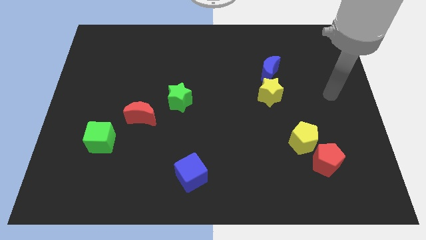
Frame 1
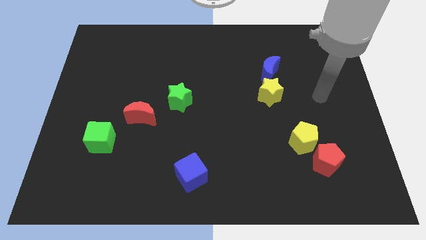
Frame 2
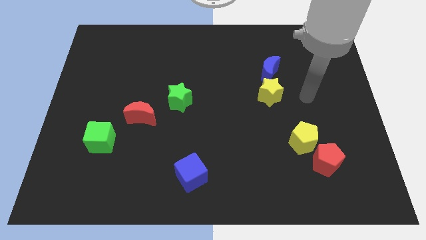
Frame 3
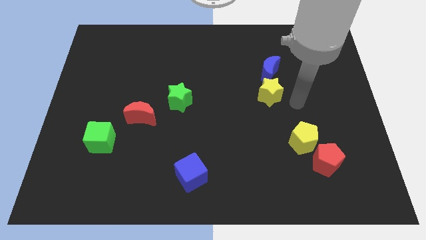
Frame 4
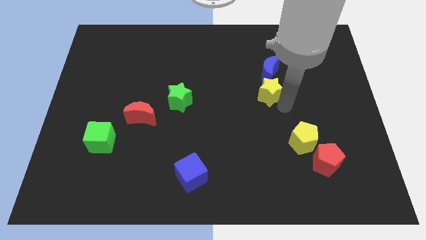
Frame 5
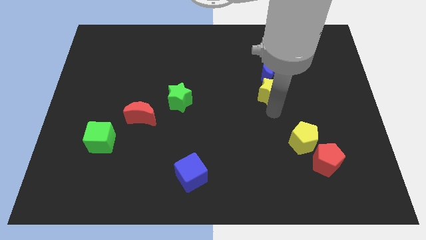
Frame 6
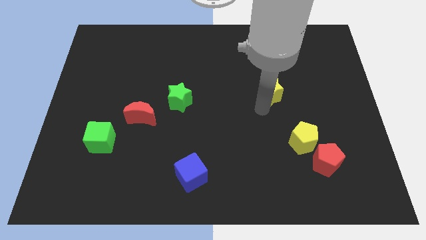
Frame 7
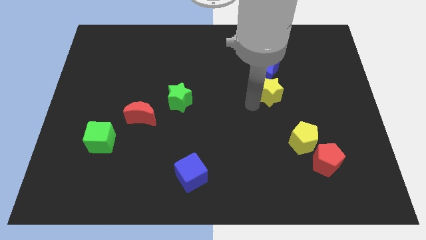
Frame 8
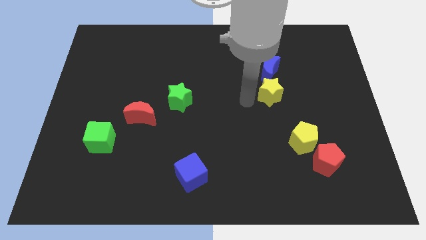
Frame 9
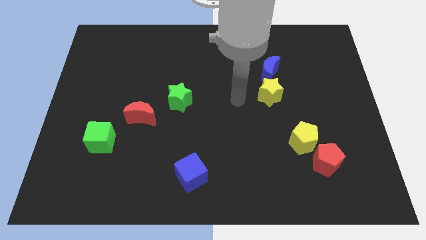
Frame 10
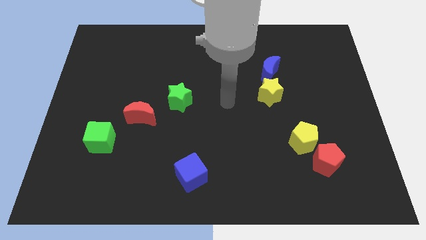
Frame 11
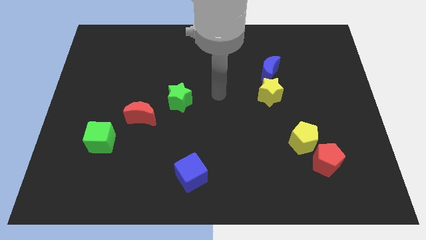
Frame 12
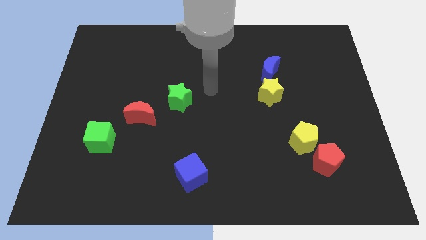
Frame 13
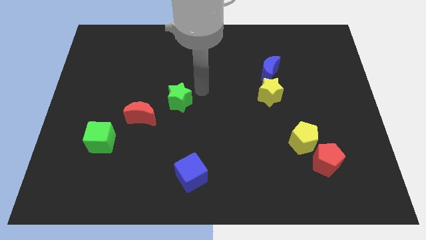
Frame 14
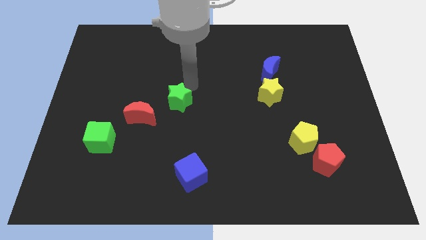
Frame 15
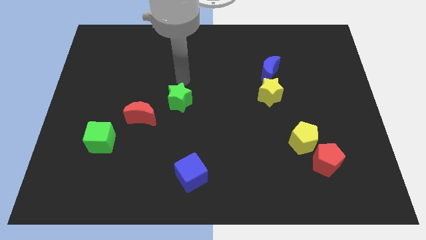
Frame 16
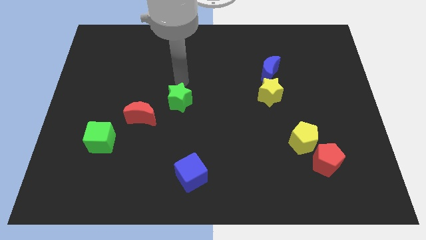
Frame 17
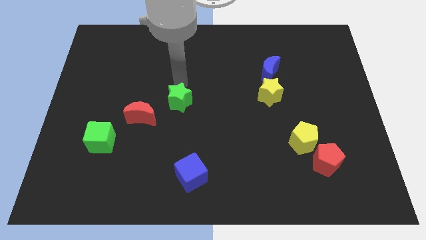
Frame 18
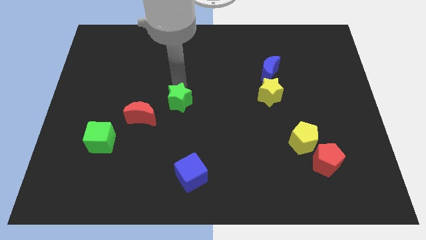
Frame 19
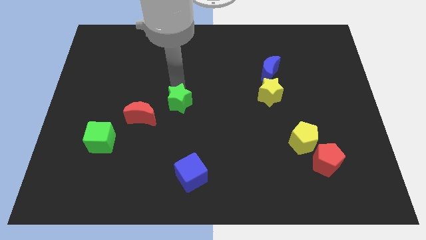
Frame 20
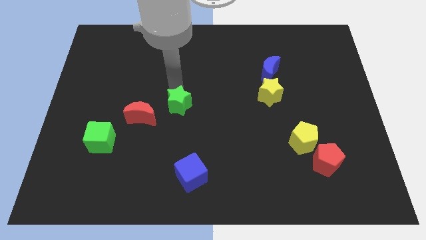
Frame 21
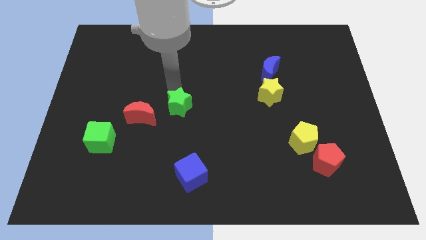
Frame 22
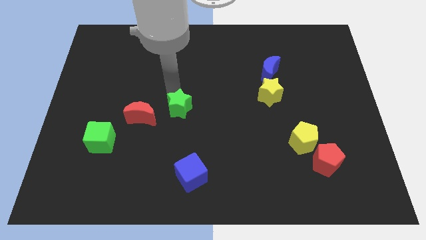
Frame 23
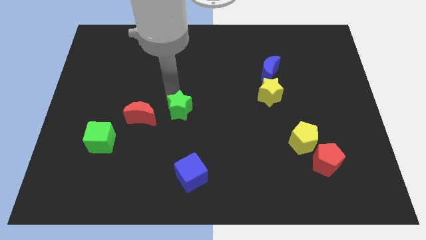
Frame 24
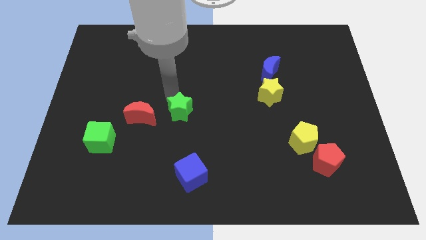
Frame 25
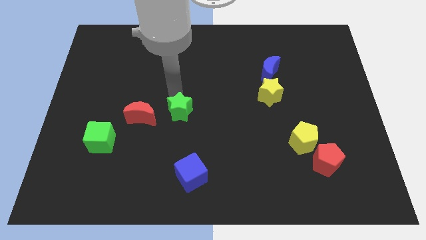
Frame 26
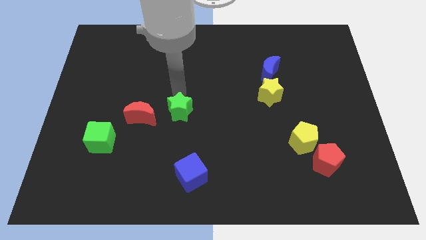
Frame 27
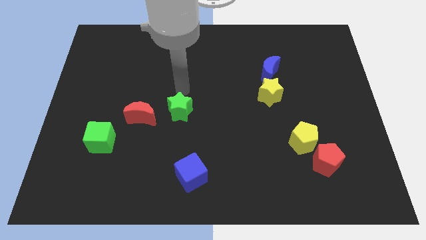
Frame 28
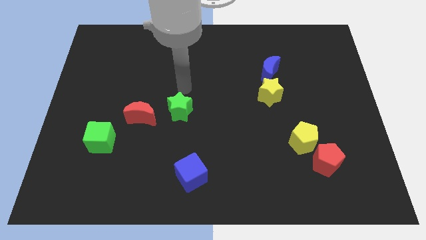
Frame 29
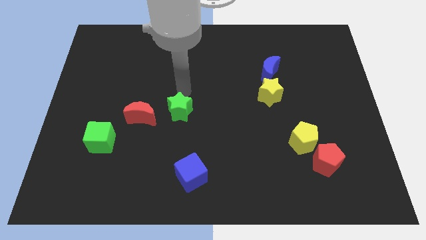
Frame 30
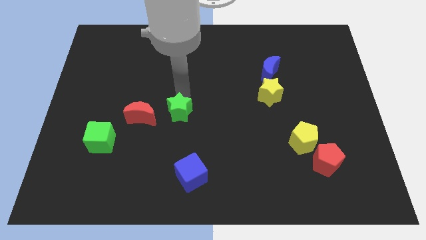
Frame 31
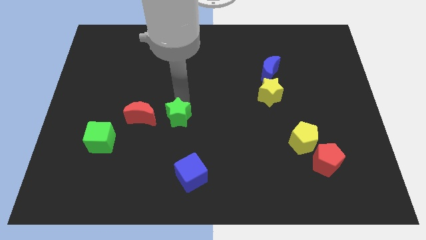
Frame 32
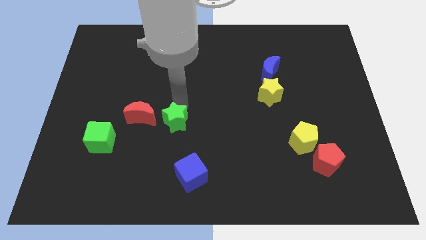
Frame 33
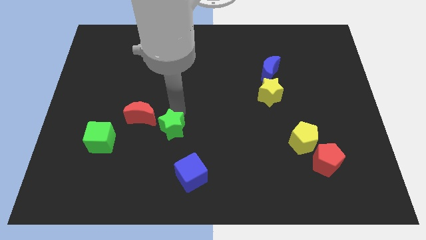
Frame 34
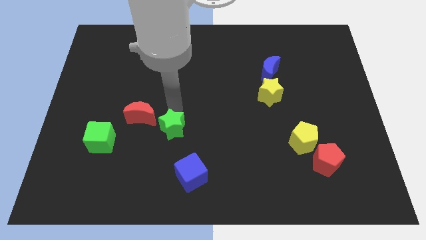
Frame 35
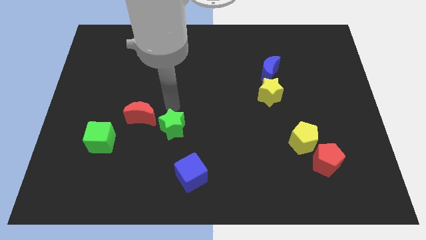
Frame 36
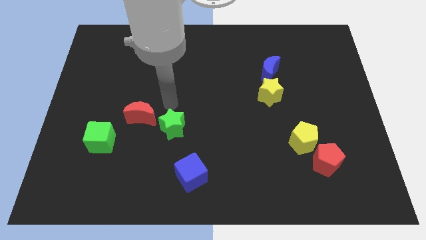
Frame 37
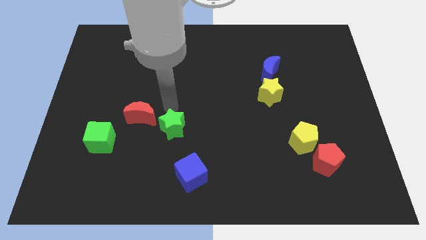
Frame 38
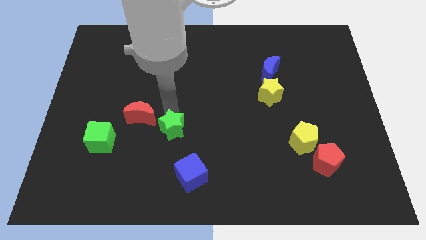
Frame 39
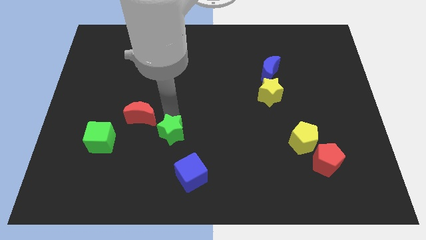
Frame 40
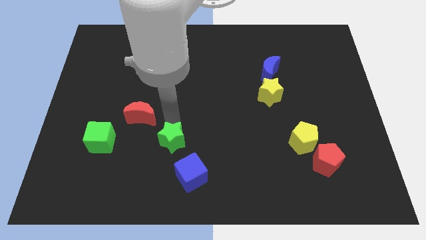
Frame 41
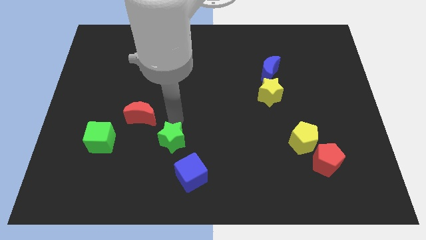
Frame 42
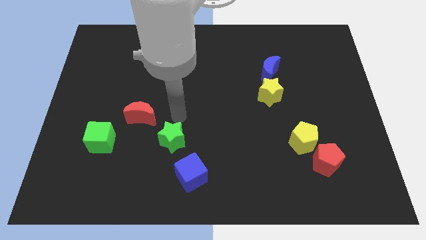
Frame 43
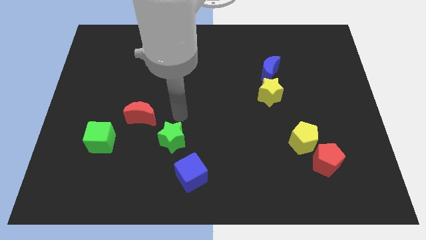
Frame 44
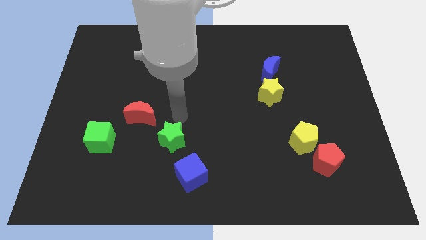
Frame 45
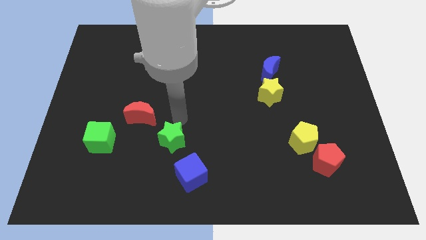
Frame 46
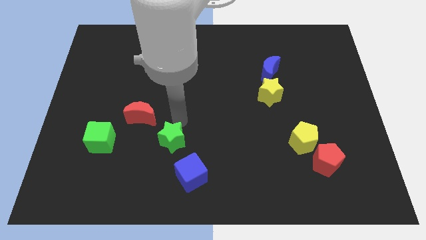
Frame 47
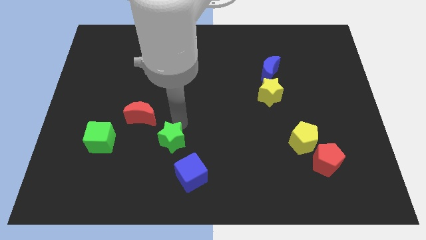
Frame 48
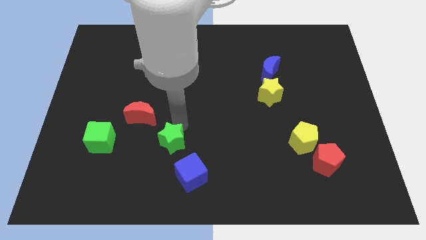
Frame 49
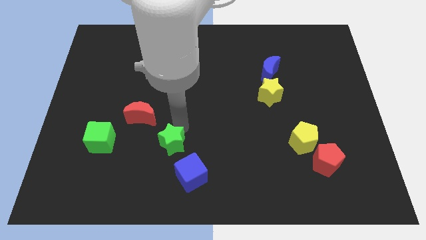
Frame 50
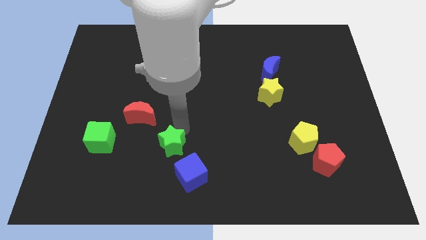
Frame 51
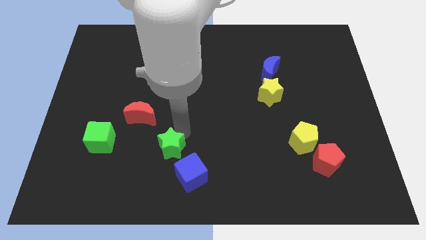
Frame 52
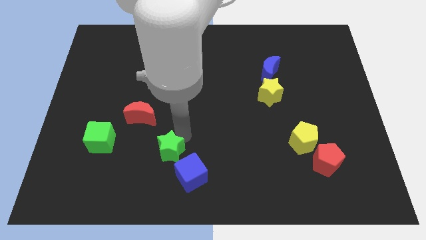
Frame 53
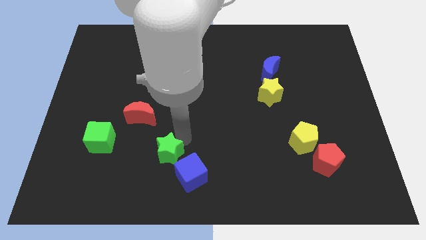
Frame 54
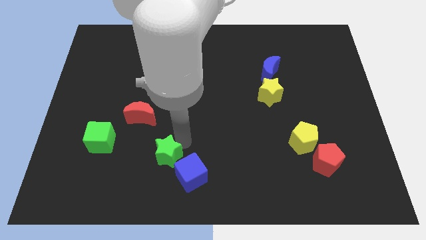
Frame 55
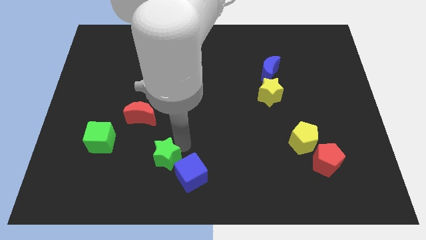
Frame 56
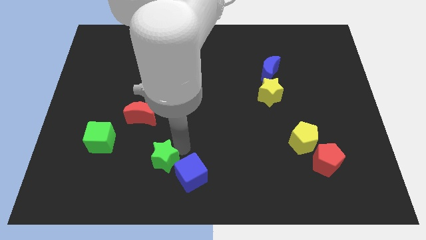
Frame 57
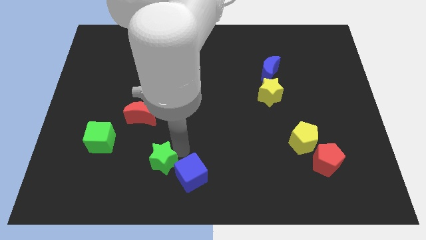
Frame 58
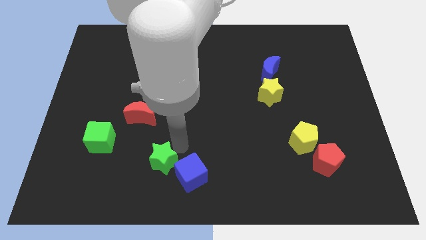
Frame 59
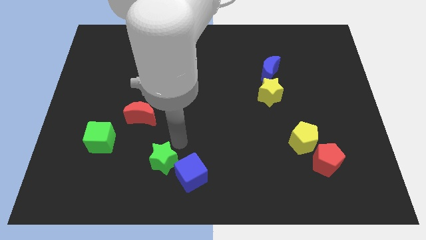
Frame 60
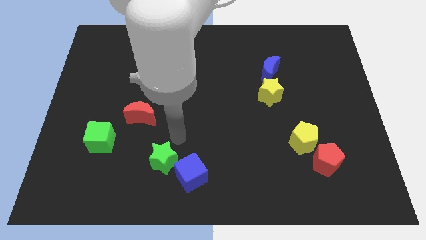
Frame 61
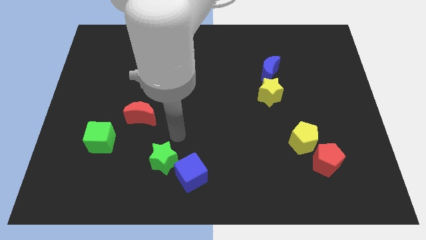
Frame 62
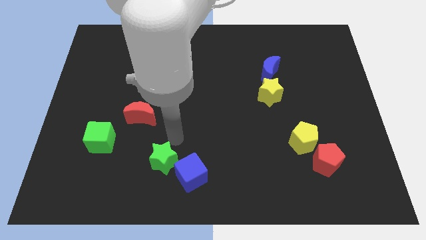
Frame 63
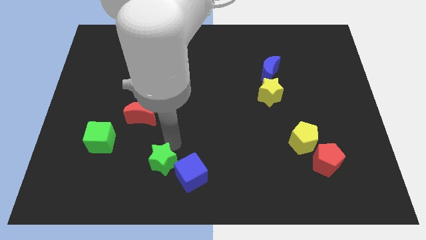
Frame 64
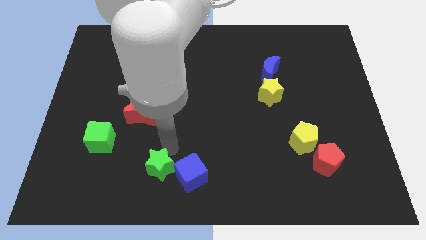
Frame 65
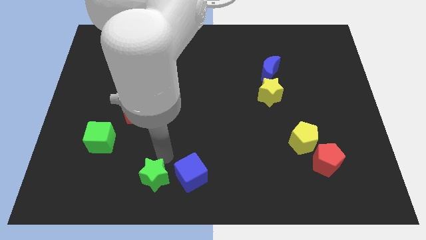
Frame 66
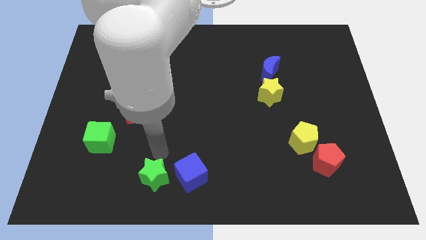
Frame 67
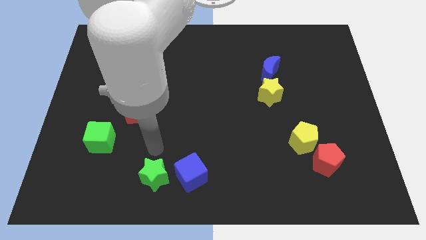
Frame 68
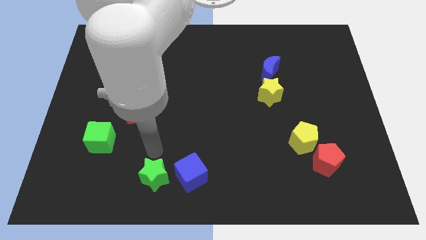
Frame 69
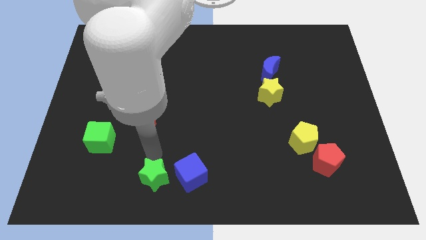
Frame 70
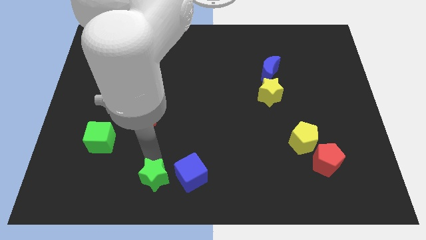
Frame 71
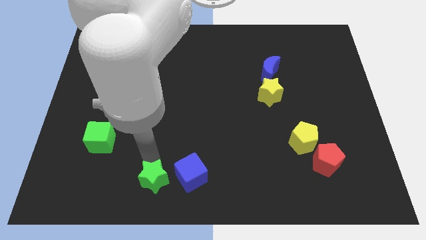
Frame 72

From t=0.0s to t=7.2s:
move the green star to the bottom
